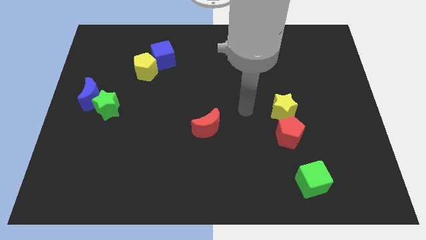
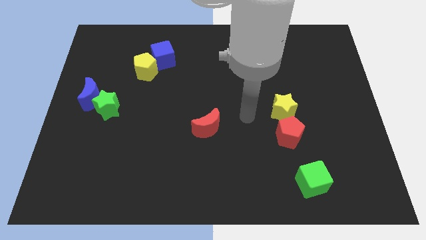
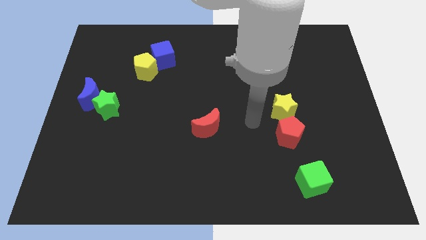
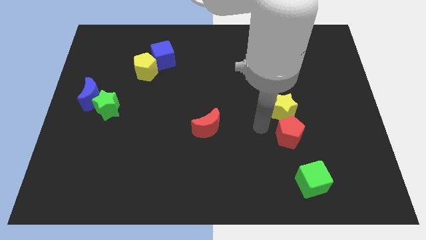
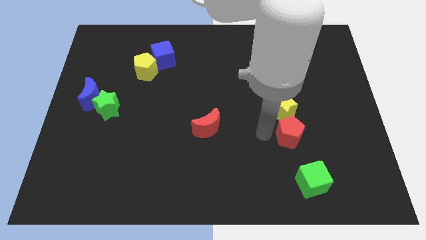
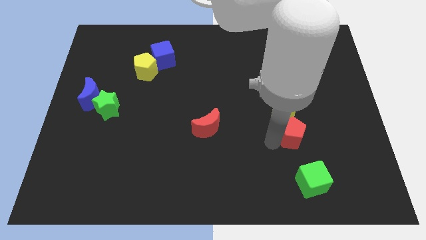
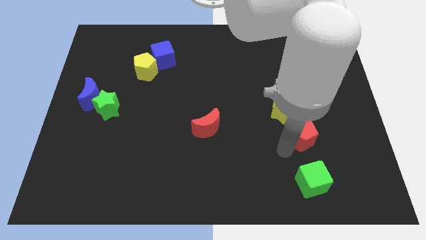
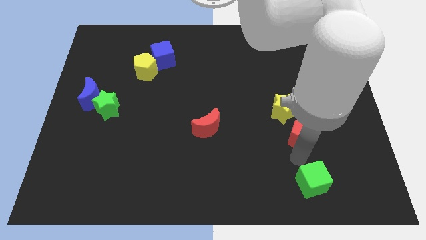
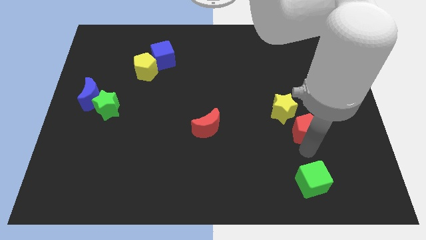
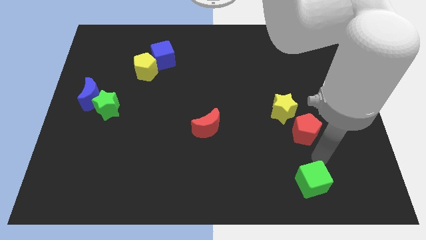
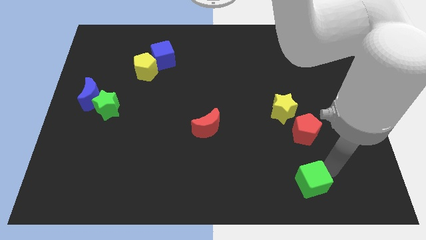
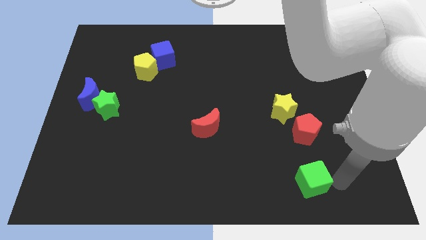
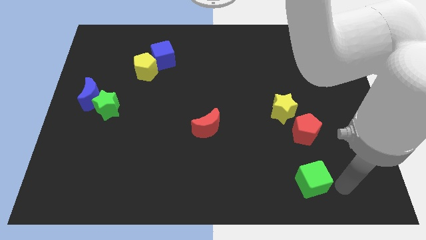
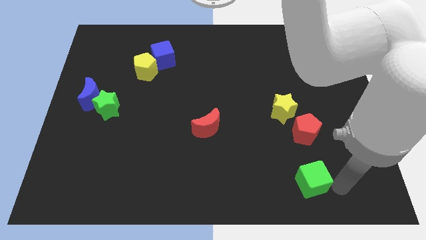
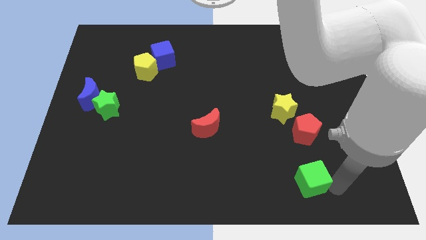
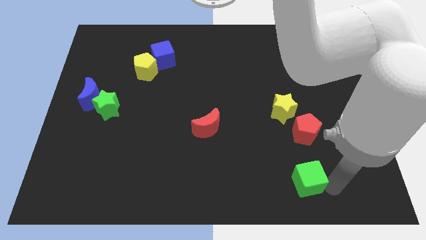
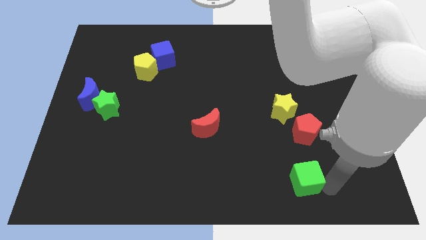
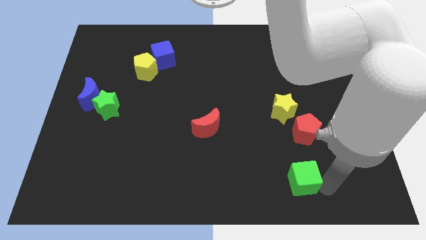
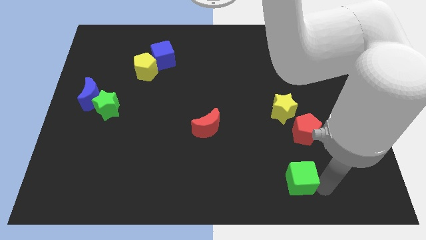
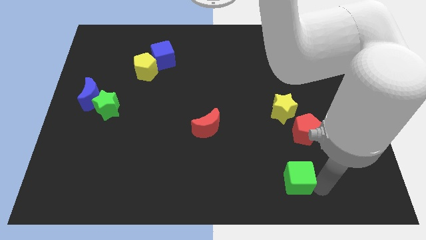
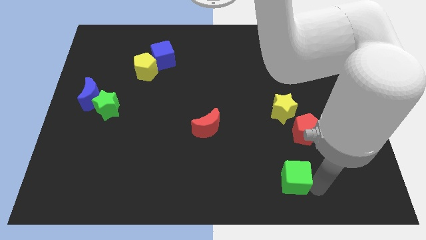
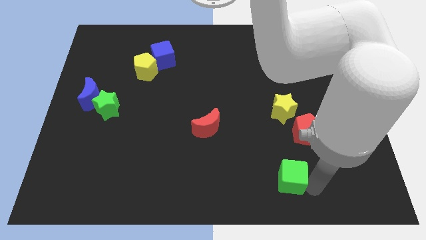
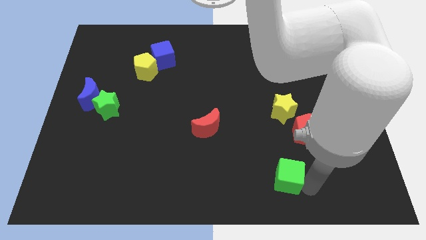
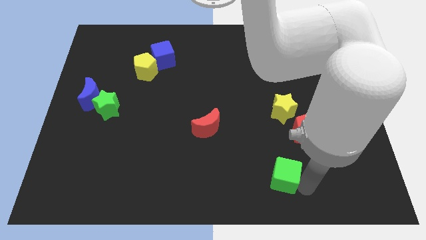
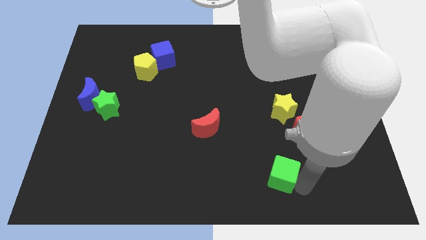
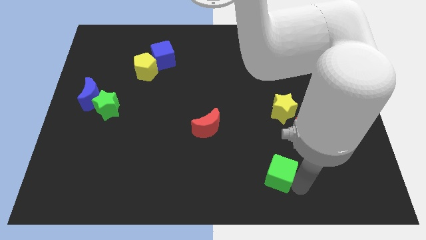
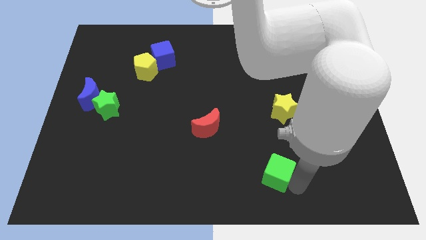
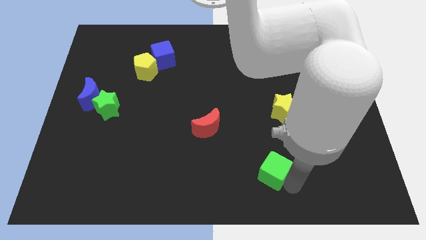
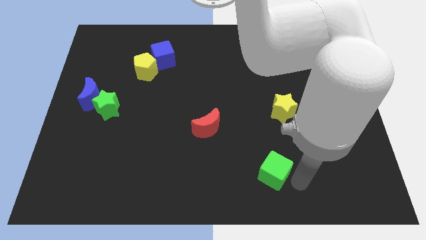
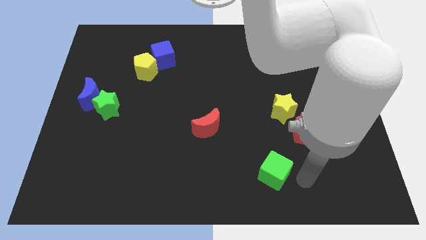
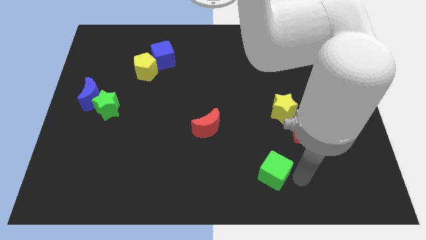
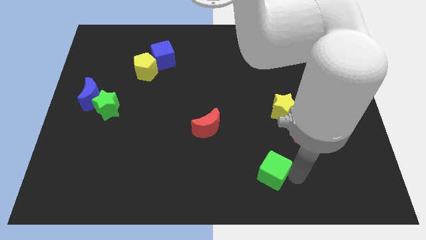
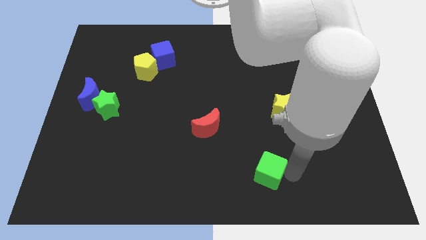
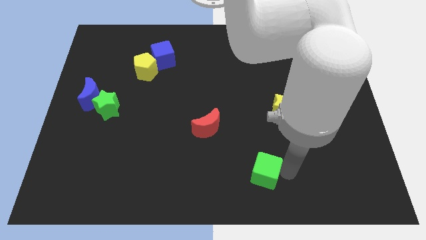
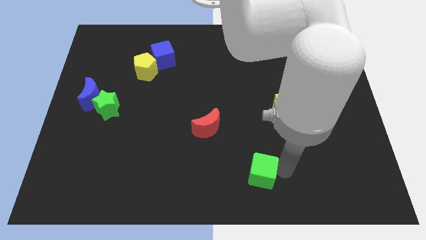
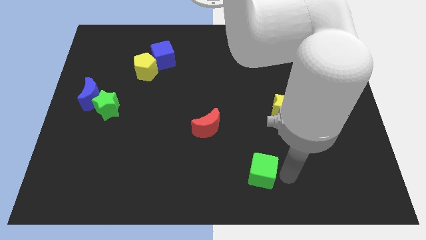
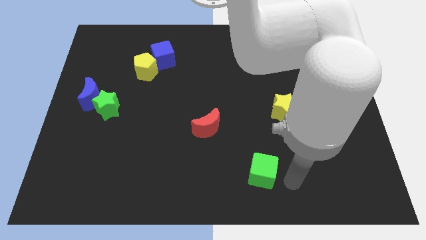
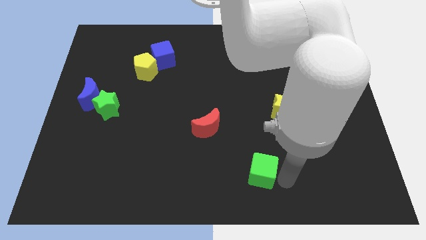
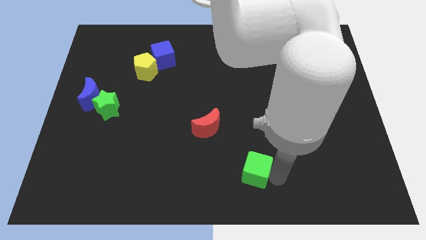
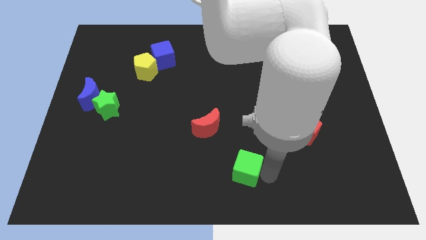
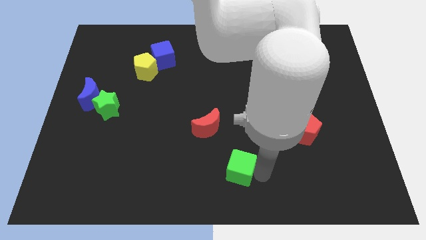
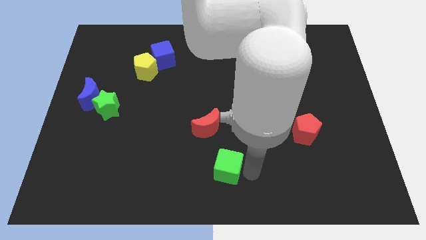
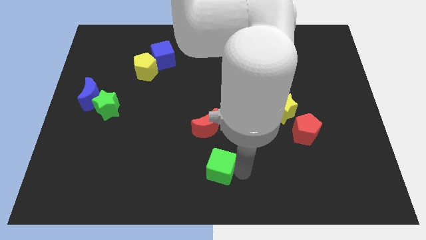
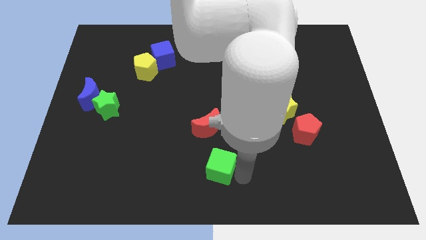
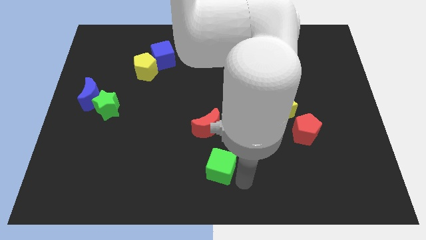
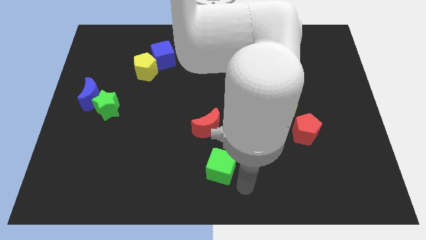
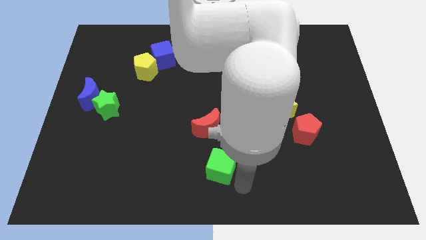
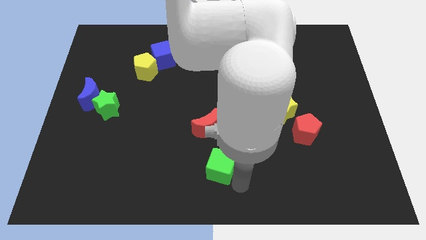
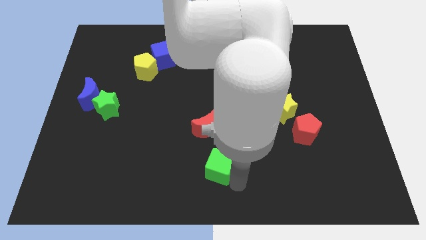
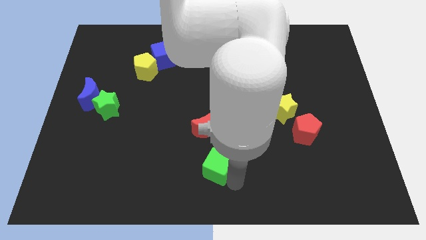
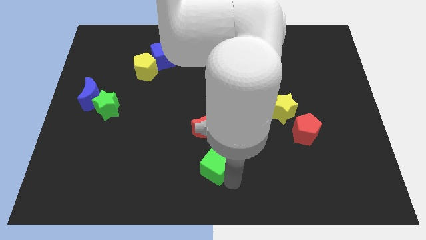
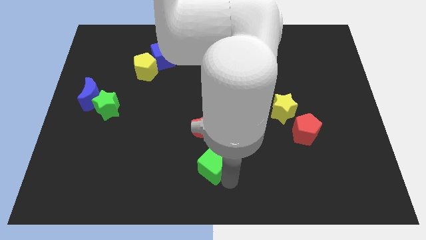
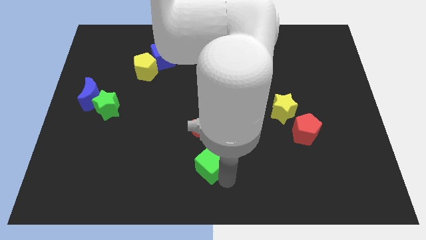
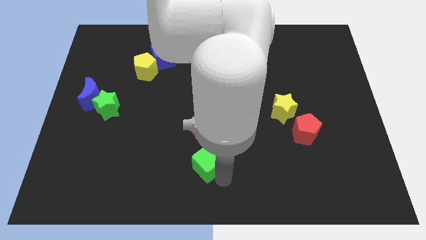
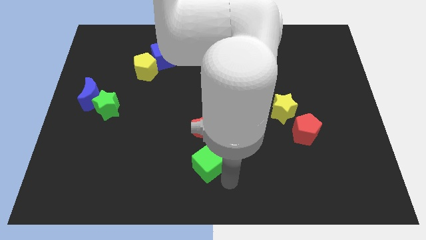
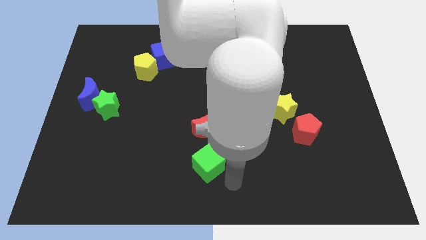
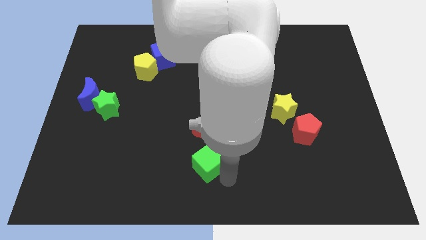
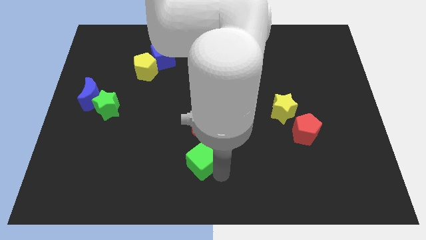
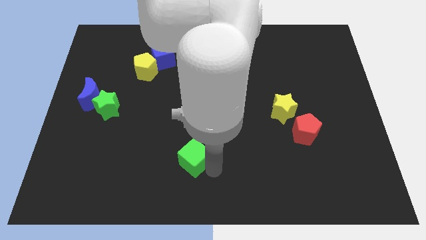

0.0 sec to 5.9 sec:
push the green cube diagonally down and to the left of the red moon

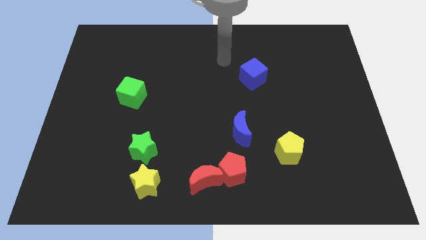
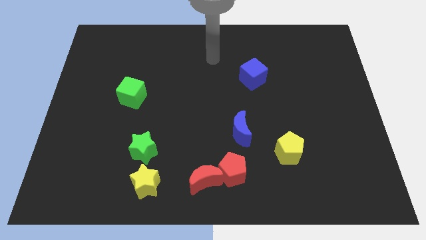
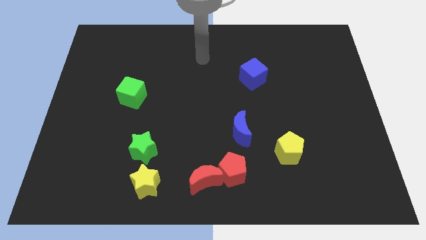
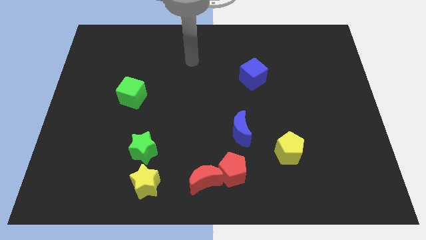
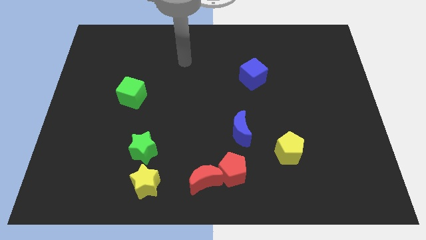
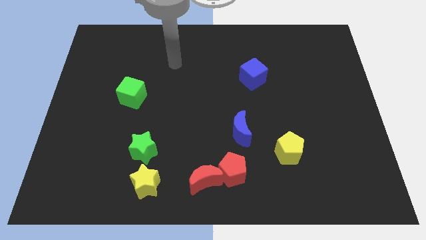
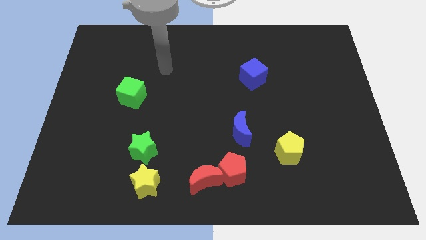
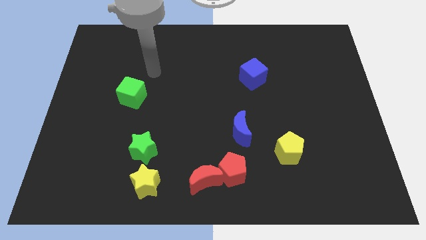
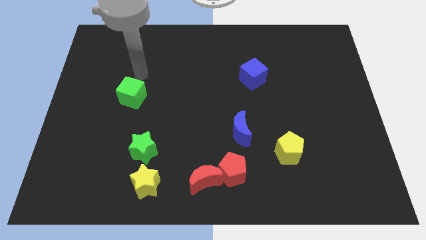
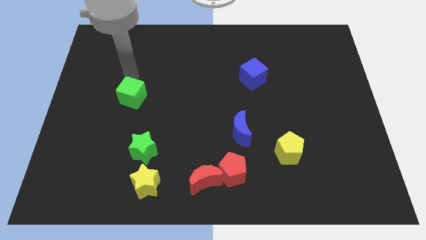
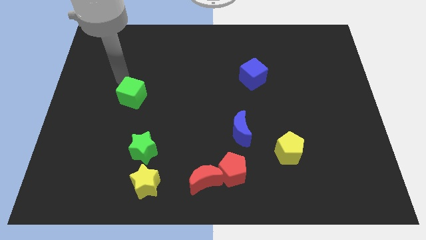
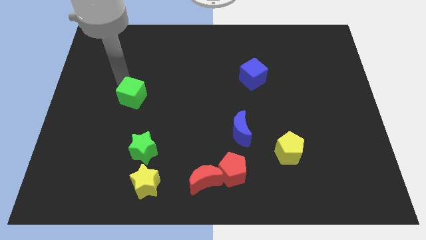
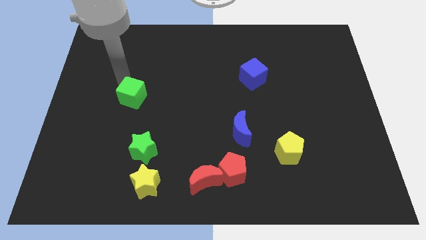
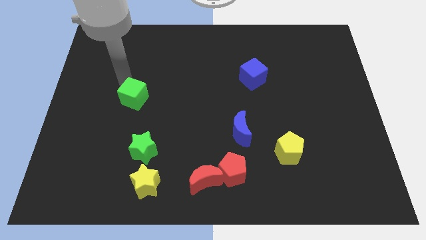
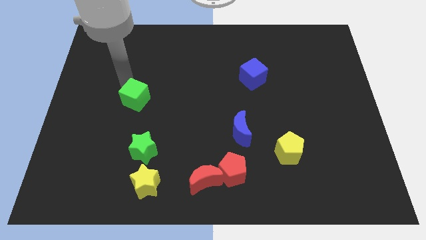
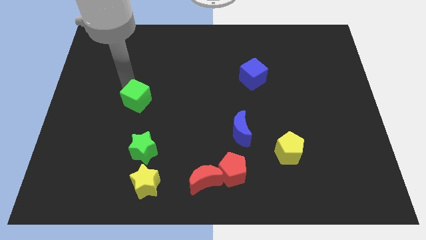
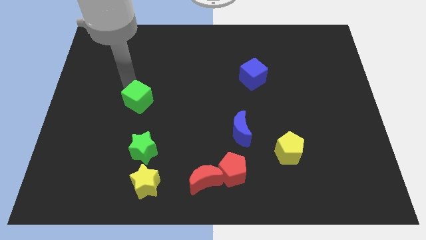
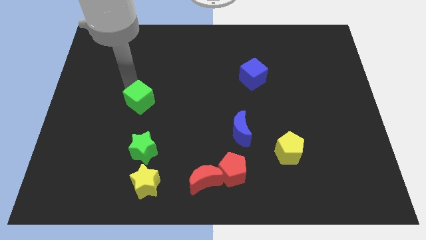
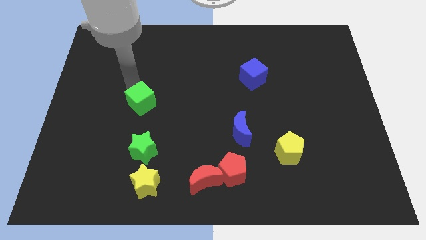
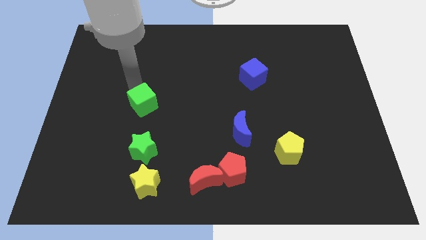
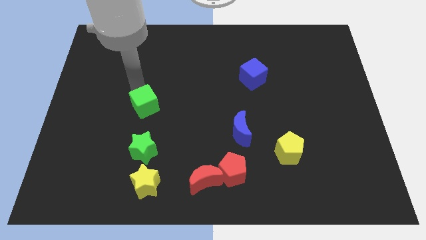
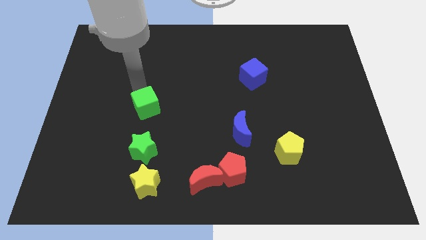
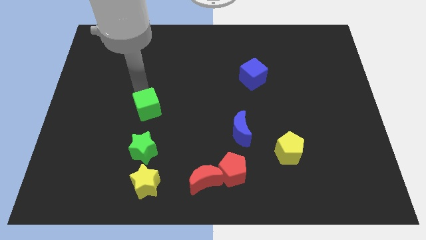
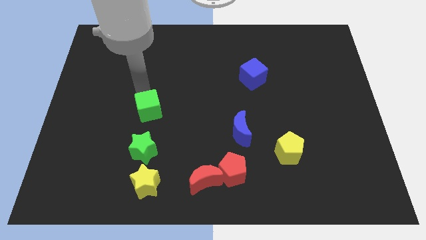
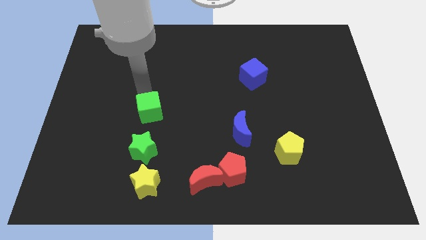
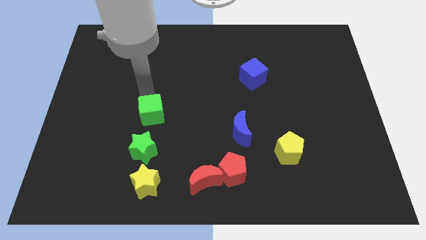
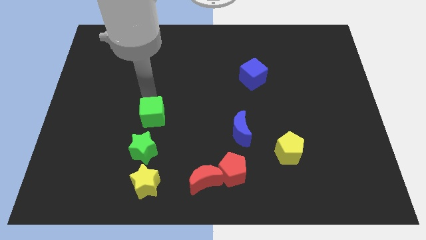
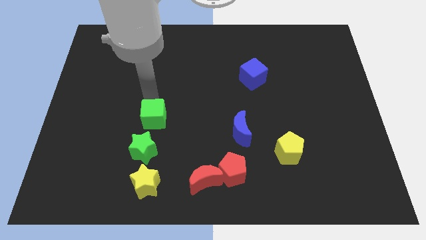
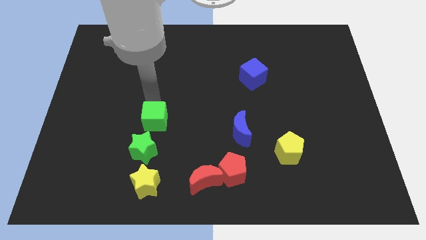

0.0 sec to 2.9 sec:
push the green cube to the top of the yellow star
